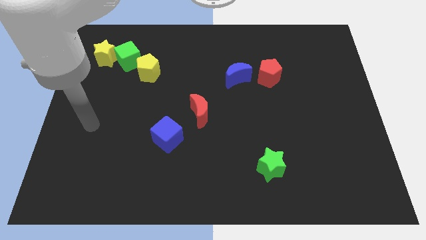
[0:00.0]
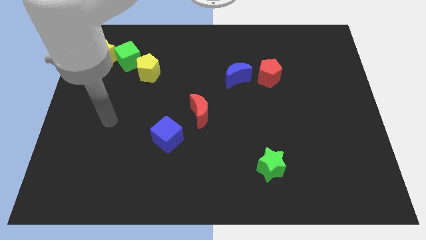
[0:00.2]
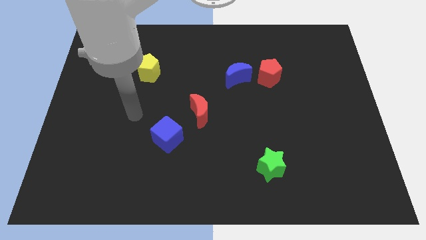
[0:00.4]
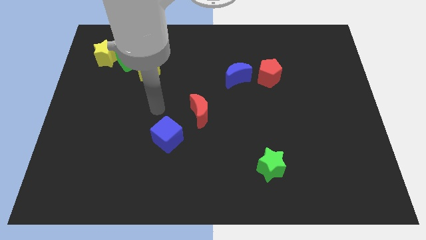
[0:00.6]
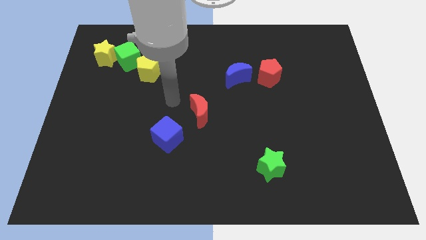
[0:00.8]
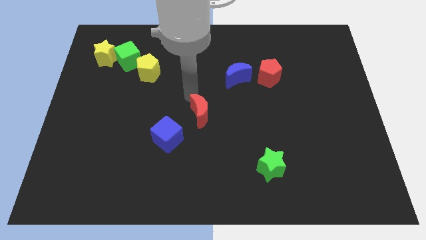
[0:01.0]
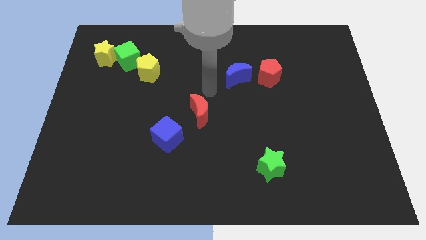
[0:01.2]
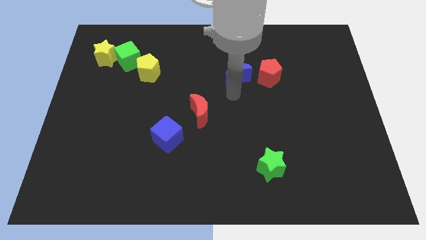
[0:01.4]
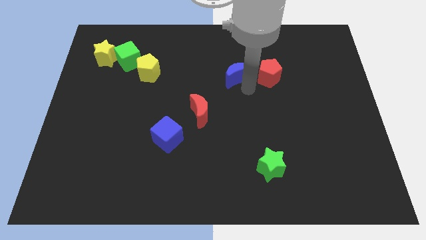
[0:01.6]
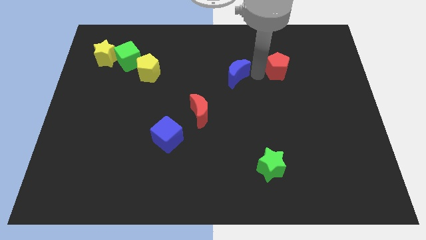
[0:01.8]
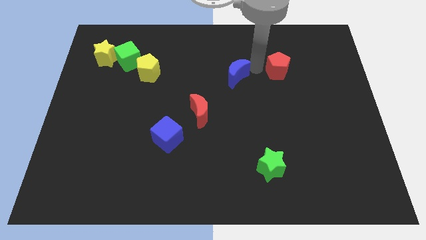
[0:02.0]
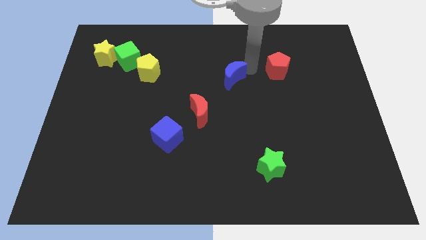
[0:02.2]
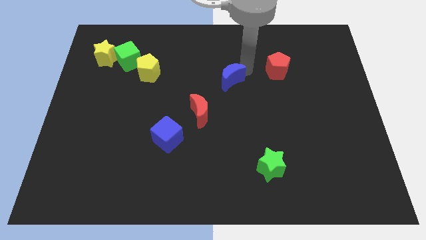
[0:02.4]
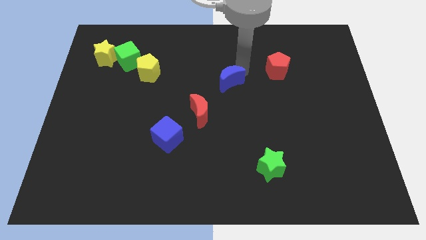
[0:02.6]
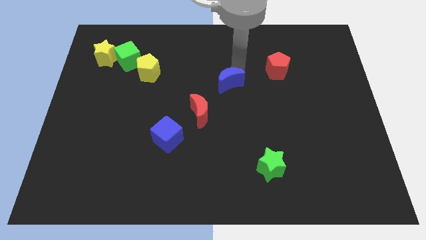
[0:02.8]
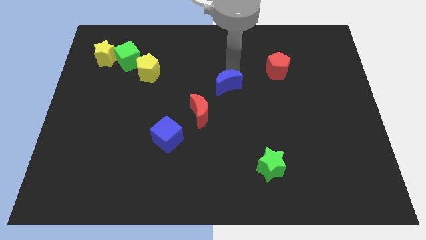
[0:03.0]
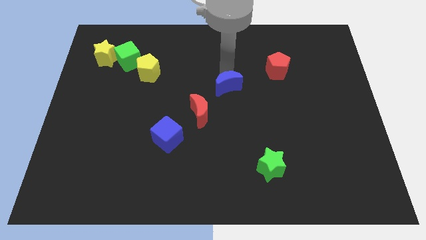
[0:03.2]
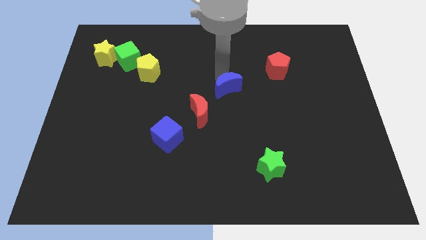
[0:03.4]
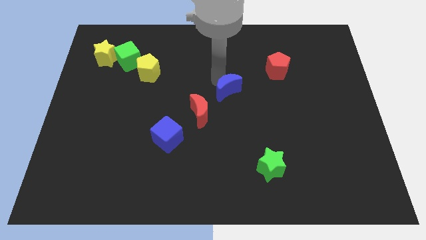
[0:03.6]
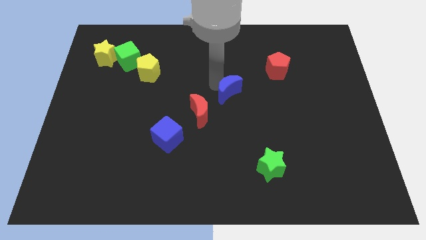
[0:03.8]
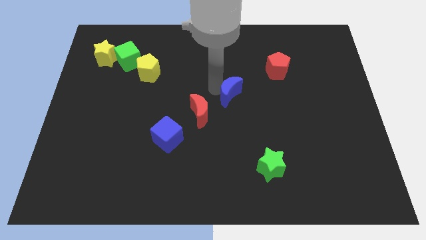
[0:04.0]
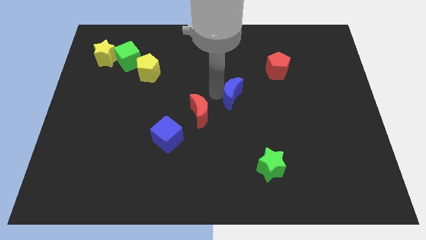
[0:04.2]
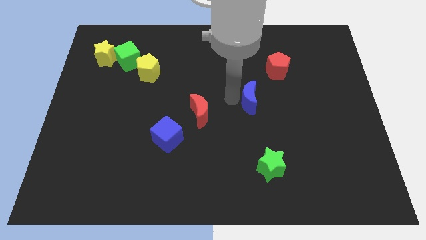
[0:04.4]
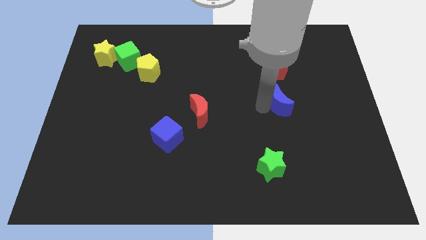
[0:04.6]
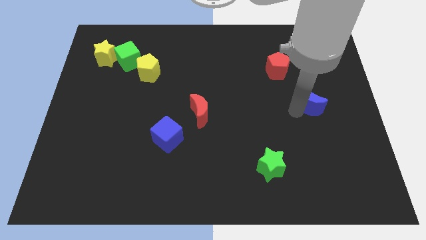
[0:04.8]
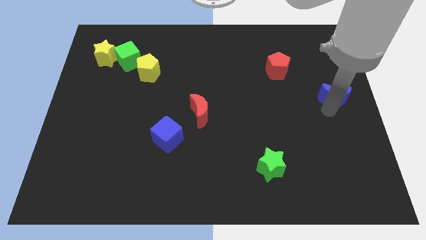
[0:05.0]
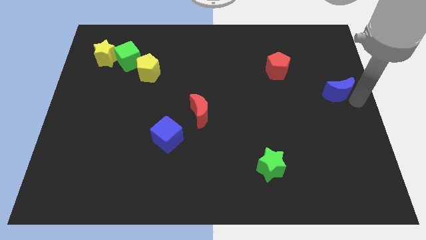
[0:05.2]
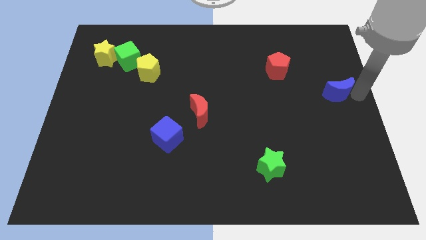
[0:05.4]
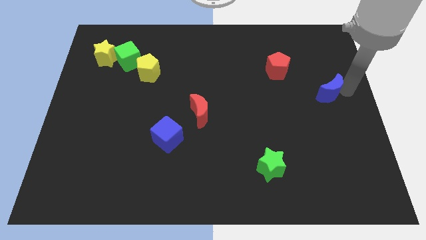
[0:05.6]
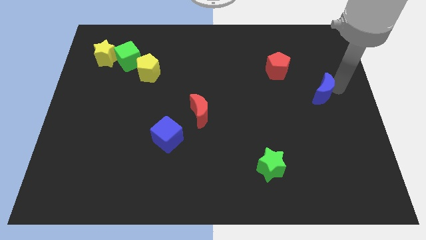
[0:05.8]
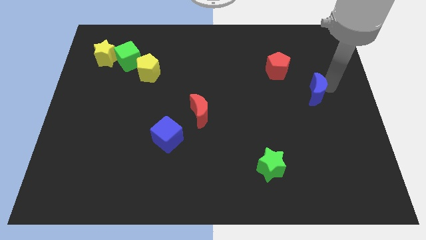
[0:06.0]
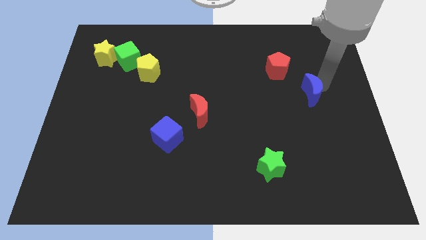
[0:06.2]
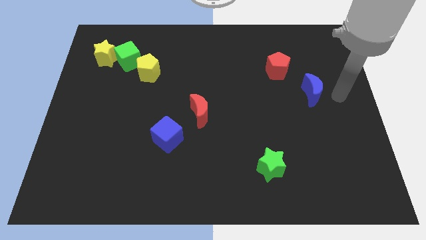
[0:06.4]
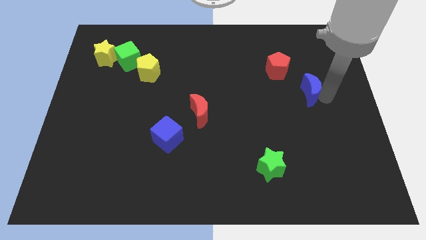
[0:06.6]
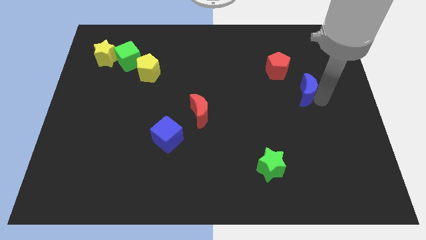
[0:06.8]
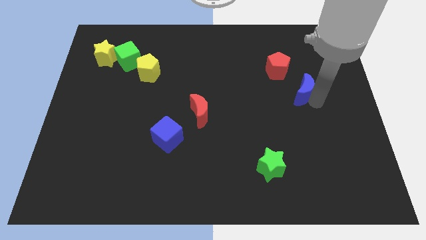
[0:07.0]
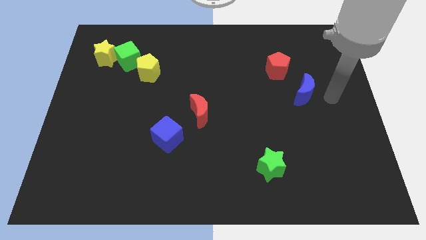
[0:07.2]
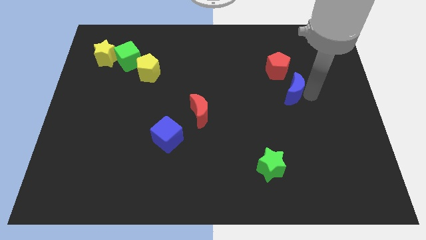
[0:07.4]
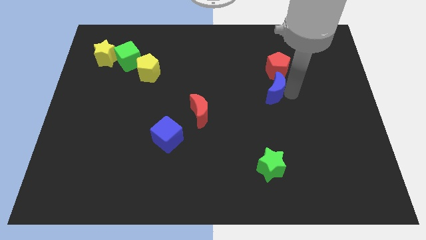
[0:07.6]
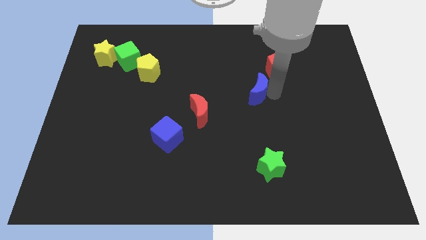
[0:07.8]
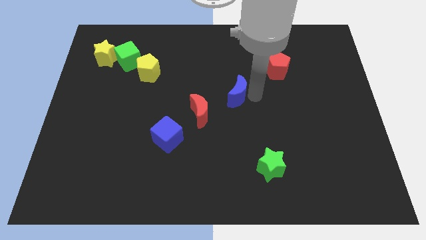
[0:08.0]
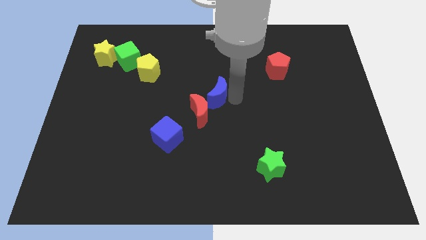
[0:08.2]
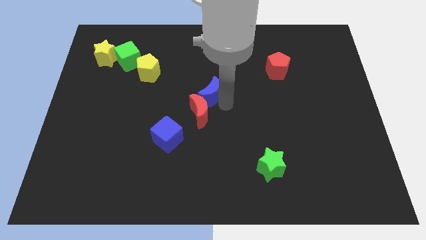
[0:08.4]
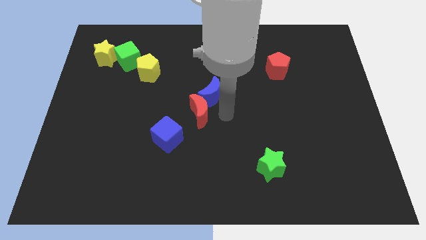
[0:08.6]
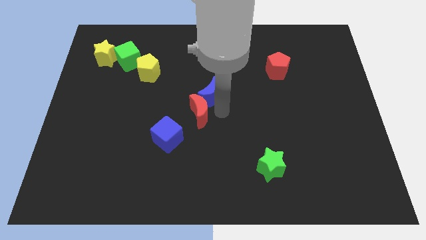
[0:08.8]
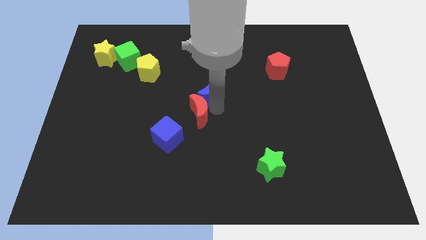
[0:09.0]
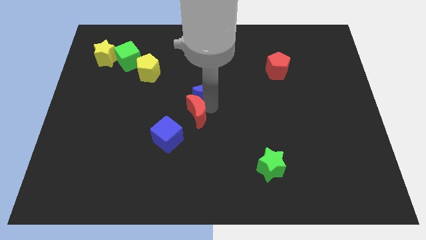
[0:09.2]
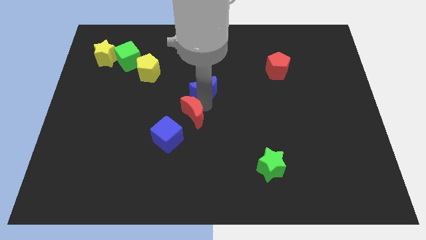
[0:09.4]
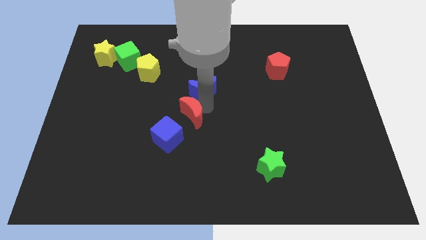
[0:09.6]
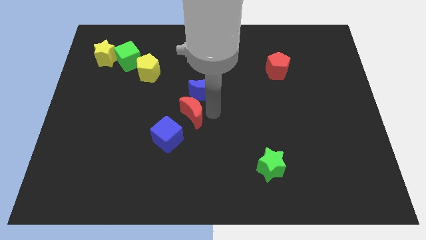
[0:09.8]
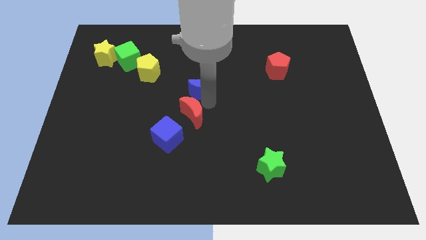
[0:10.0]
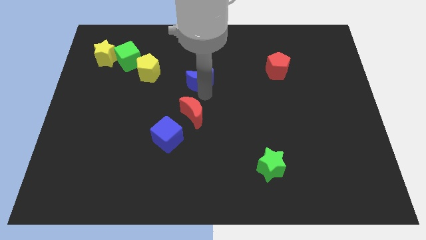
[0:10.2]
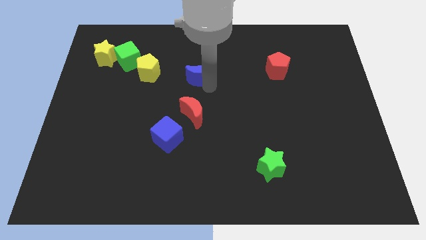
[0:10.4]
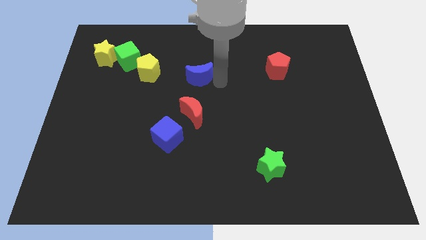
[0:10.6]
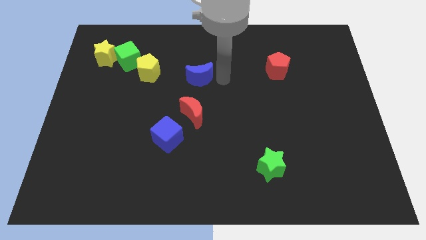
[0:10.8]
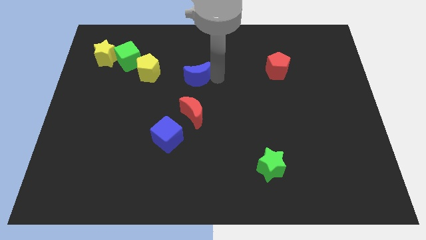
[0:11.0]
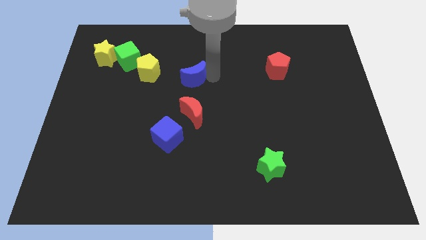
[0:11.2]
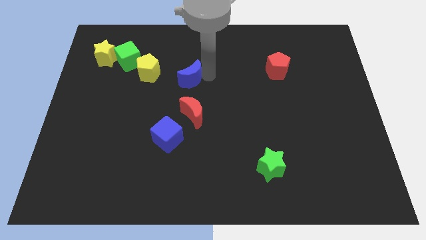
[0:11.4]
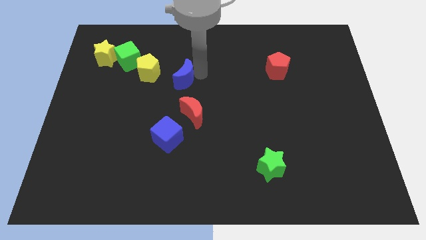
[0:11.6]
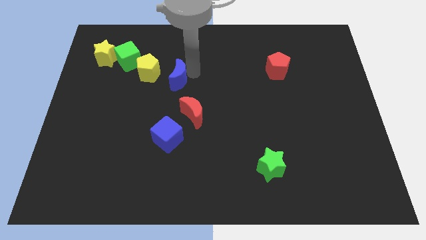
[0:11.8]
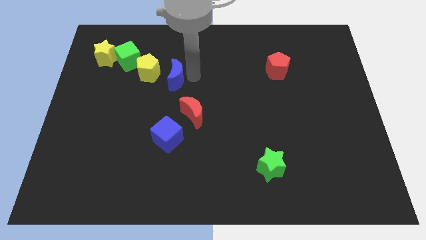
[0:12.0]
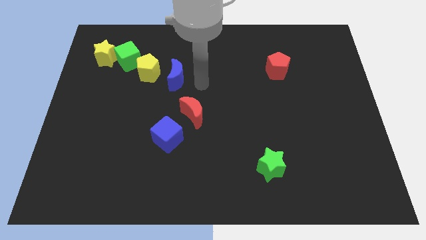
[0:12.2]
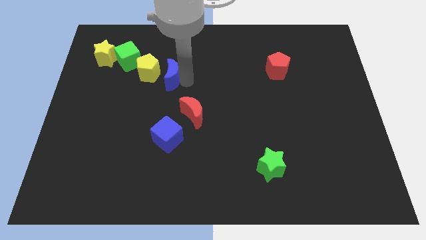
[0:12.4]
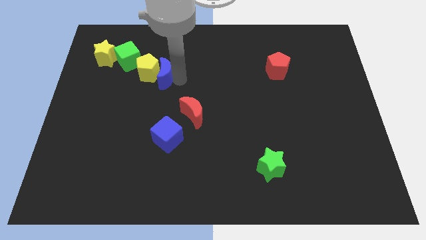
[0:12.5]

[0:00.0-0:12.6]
move the blue moon close to the yellow pentagon
